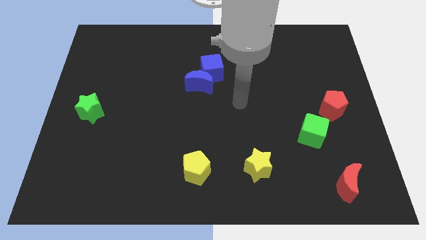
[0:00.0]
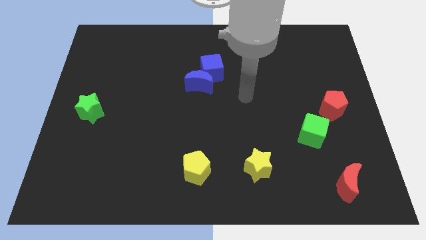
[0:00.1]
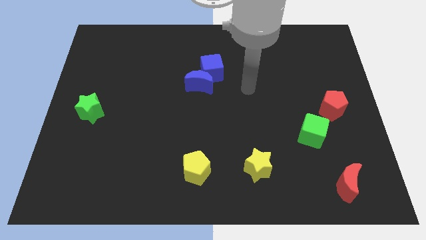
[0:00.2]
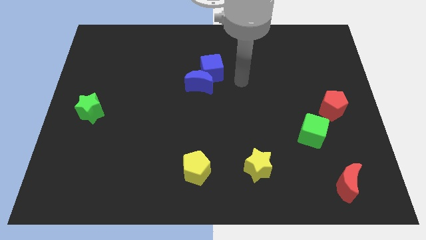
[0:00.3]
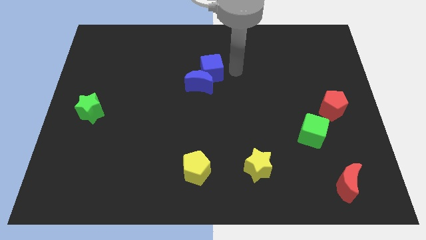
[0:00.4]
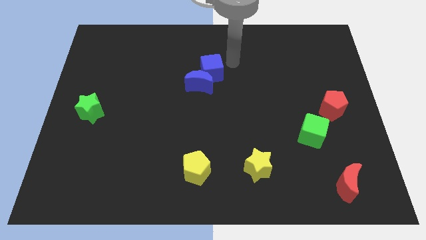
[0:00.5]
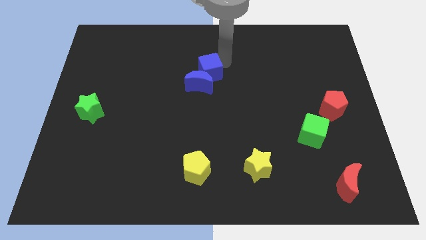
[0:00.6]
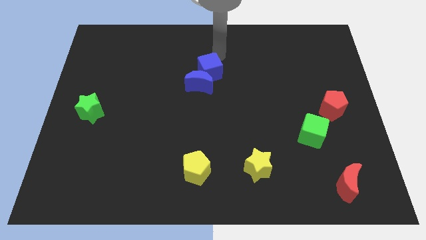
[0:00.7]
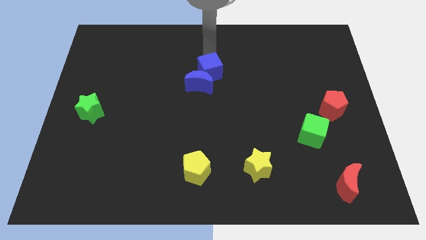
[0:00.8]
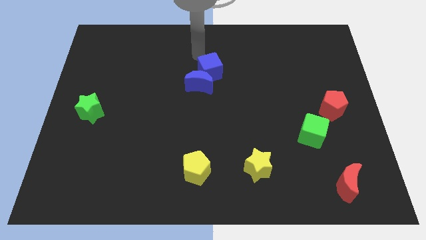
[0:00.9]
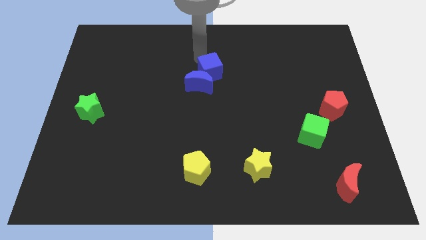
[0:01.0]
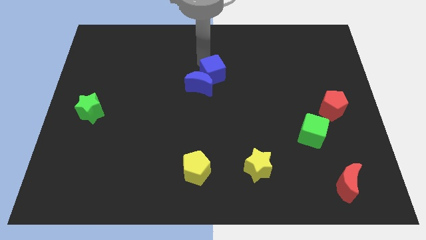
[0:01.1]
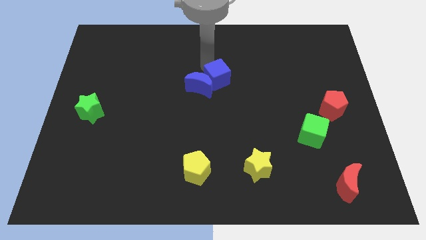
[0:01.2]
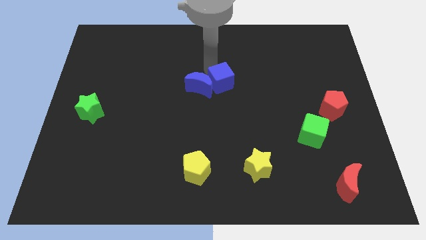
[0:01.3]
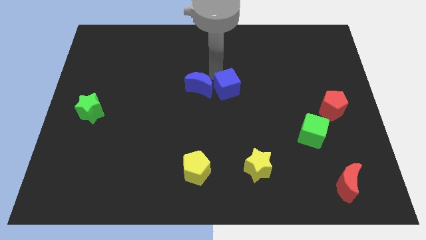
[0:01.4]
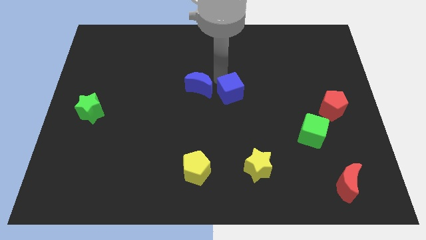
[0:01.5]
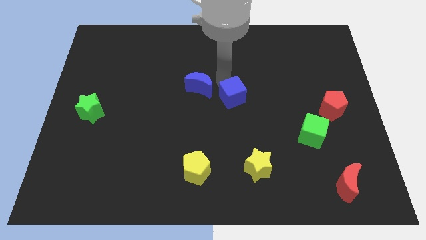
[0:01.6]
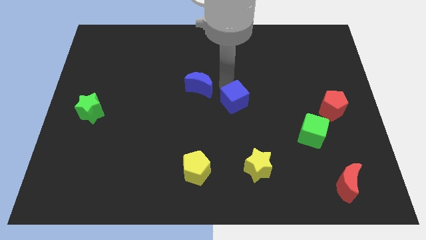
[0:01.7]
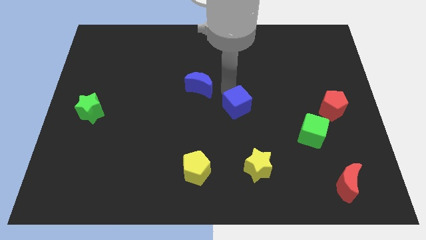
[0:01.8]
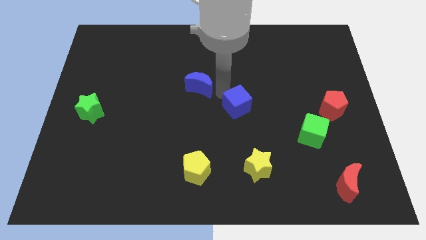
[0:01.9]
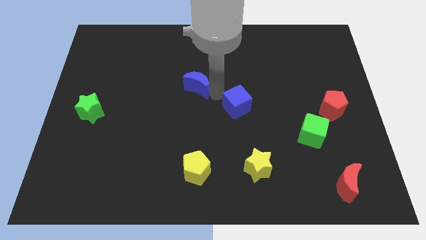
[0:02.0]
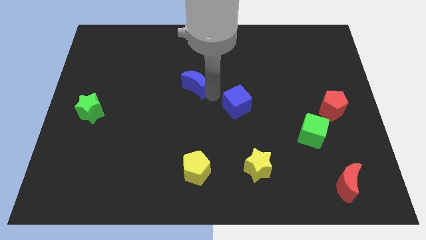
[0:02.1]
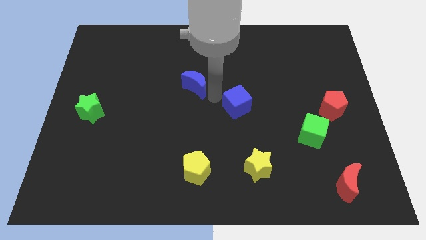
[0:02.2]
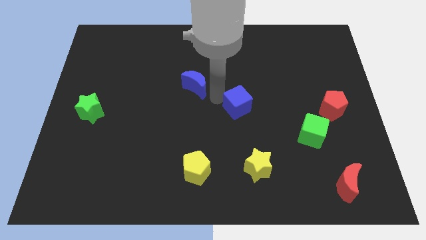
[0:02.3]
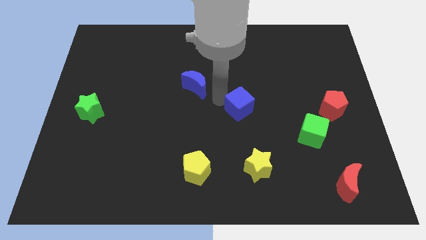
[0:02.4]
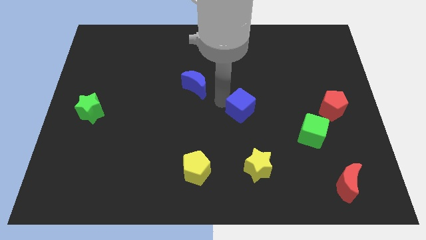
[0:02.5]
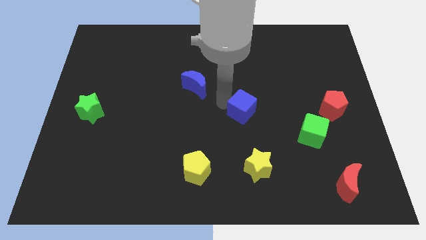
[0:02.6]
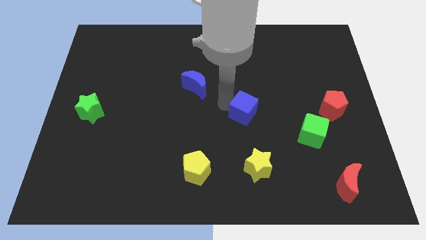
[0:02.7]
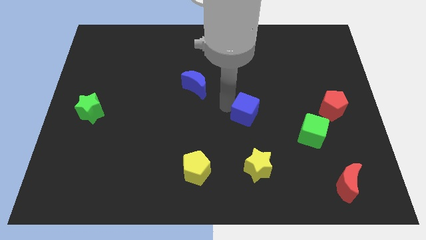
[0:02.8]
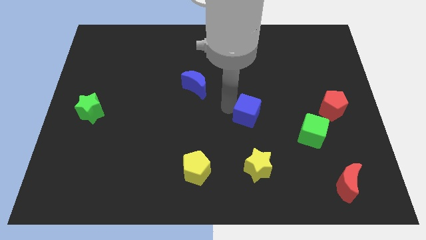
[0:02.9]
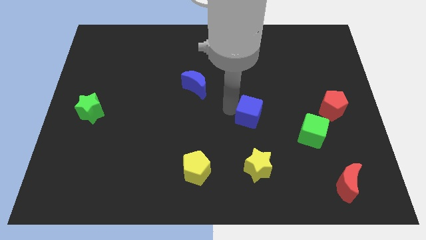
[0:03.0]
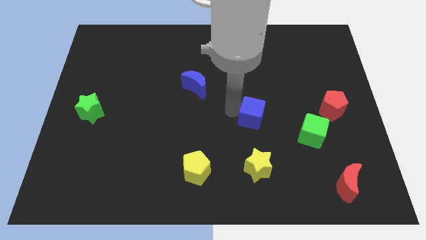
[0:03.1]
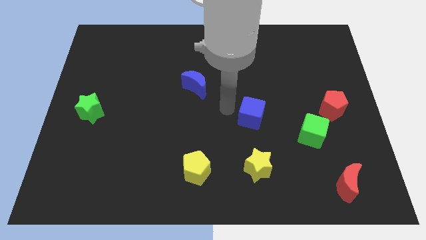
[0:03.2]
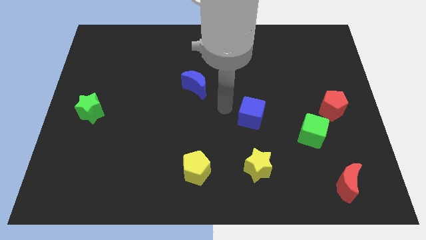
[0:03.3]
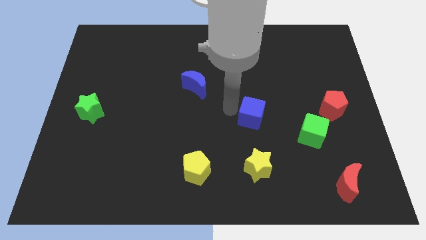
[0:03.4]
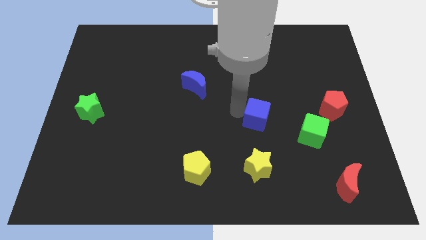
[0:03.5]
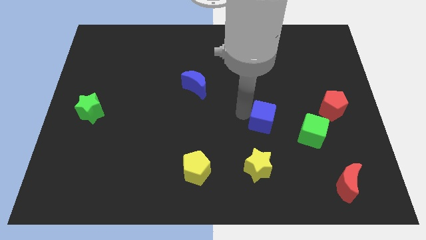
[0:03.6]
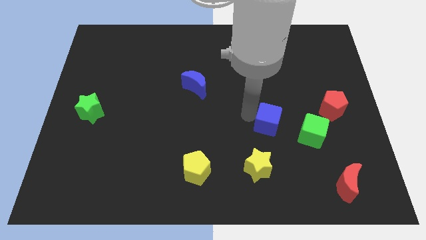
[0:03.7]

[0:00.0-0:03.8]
move the blue cube down and right

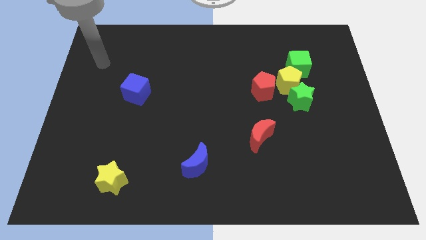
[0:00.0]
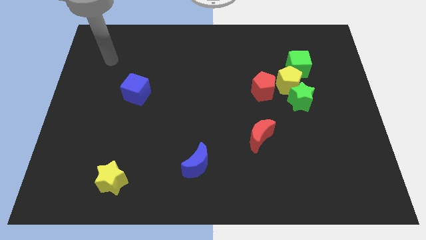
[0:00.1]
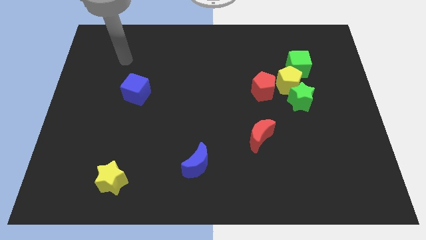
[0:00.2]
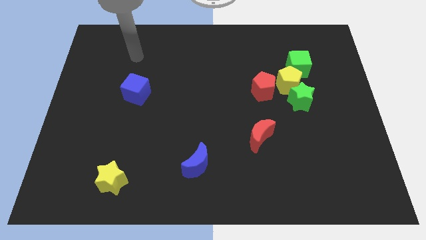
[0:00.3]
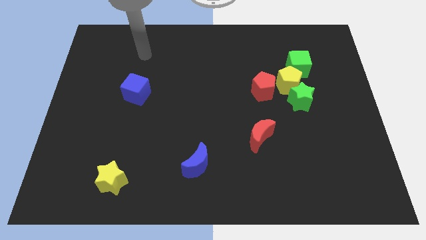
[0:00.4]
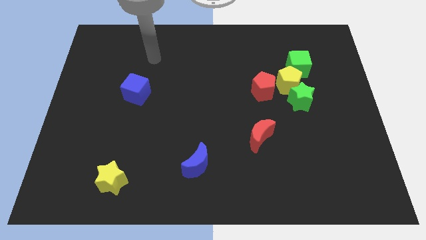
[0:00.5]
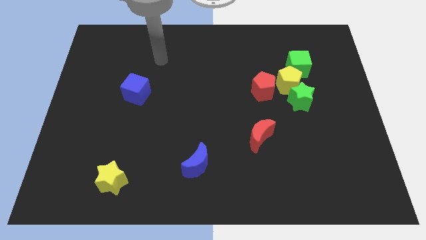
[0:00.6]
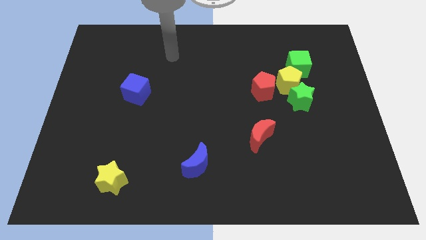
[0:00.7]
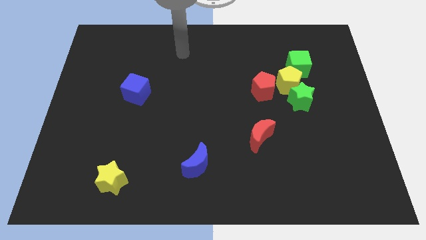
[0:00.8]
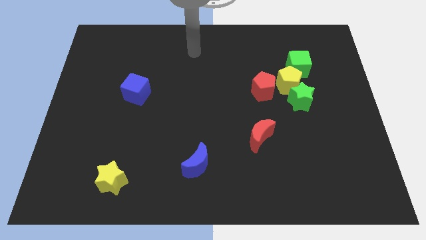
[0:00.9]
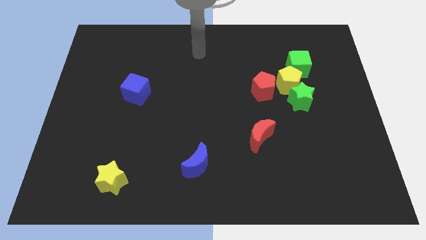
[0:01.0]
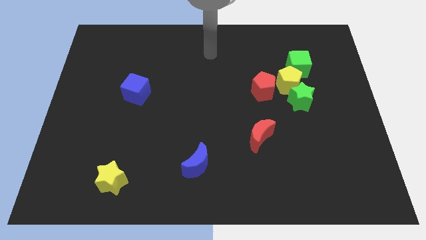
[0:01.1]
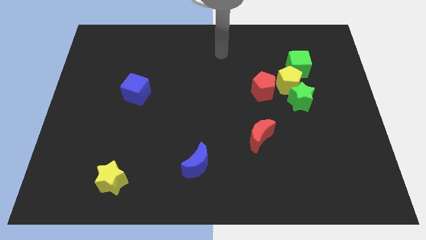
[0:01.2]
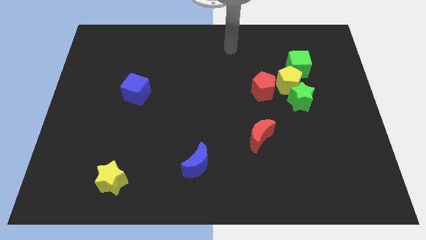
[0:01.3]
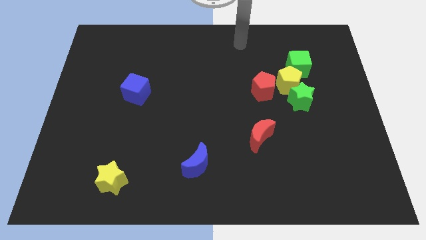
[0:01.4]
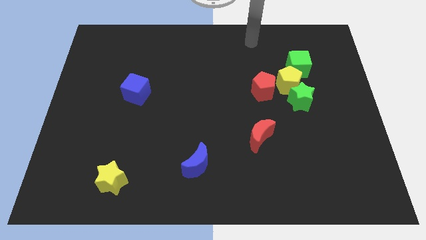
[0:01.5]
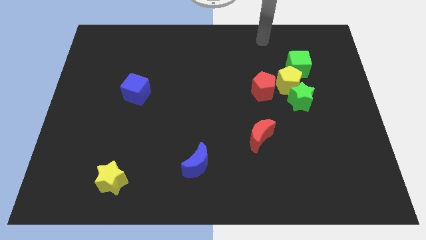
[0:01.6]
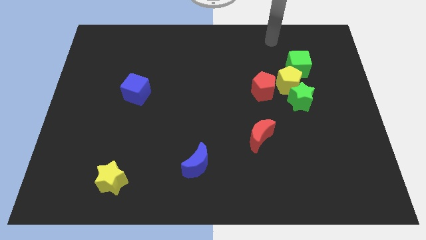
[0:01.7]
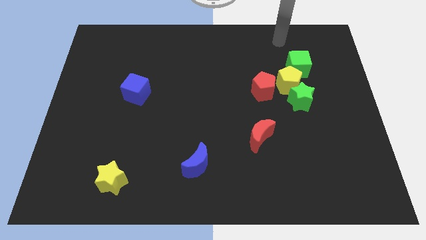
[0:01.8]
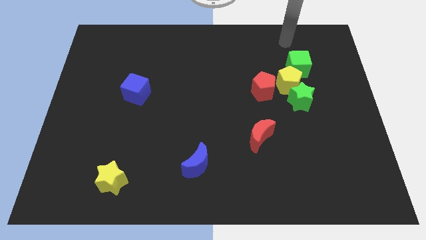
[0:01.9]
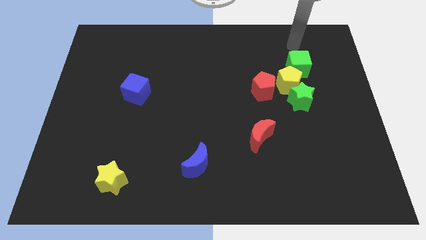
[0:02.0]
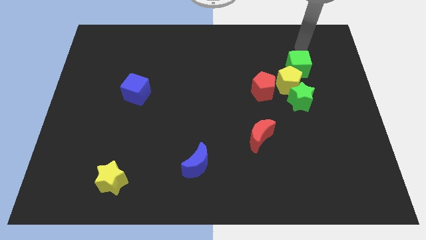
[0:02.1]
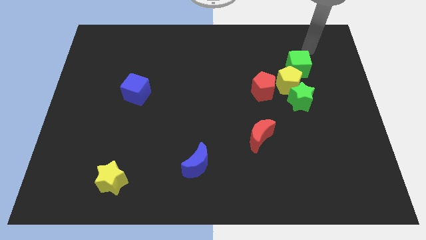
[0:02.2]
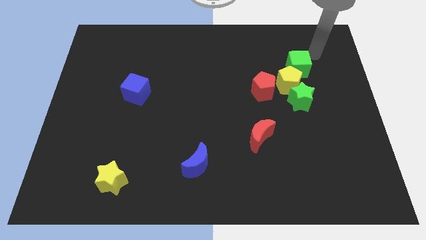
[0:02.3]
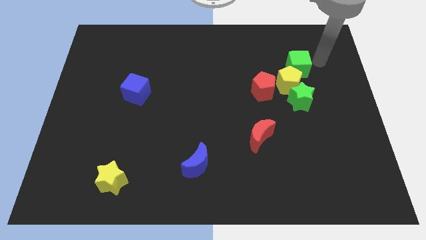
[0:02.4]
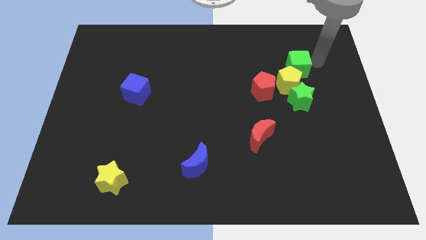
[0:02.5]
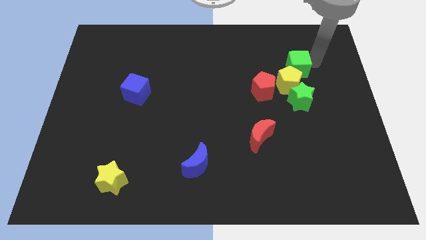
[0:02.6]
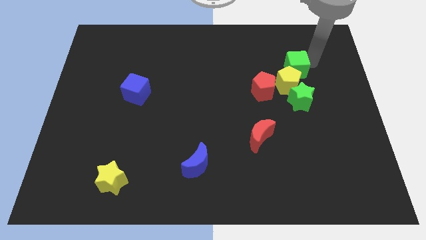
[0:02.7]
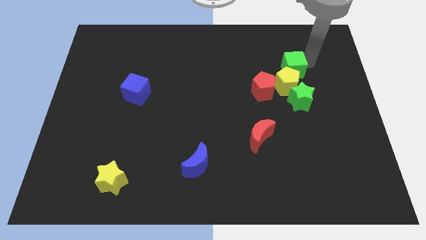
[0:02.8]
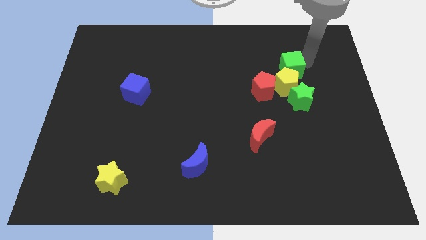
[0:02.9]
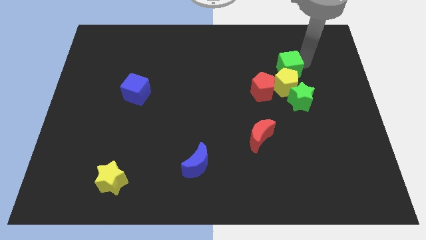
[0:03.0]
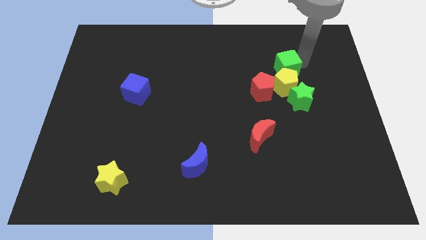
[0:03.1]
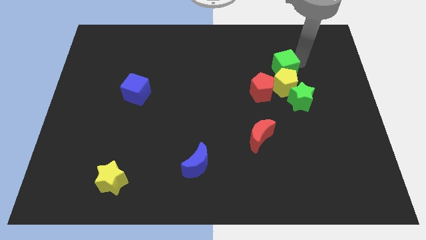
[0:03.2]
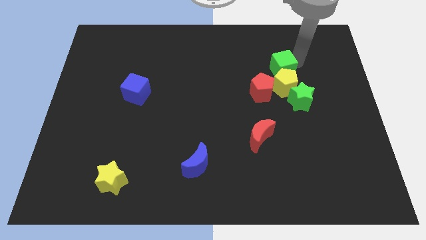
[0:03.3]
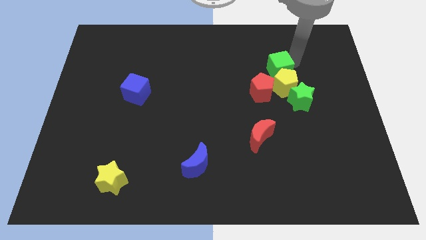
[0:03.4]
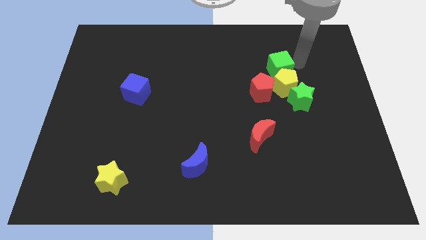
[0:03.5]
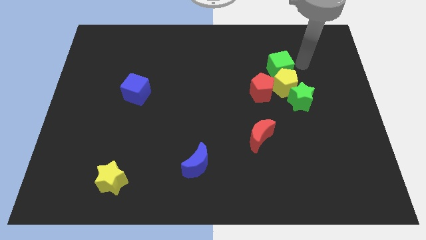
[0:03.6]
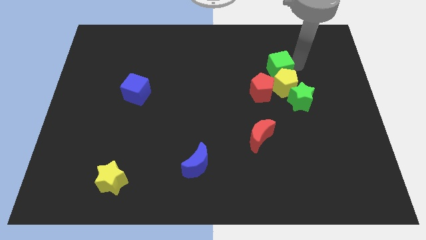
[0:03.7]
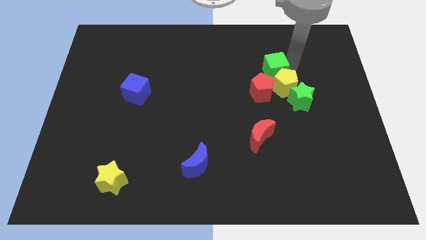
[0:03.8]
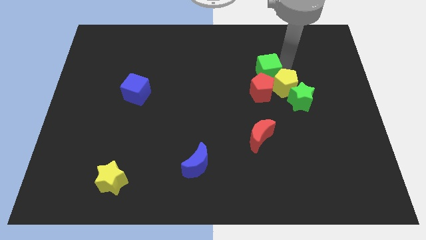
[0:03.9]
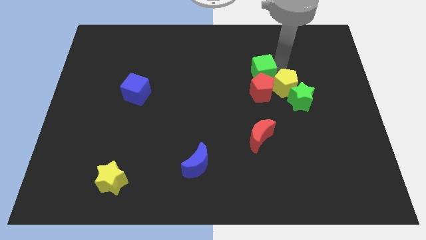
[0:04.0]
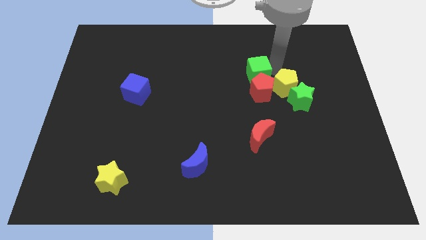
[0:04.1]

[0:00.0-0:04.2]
slightly move the green cube down and to the left diagonally

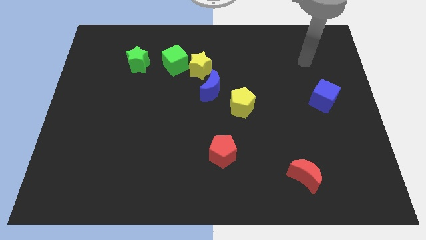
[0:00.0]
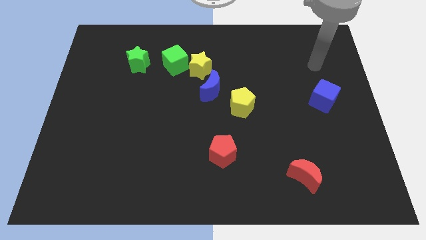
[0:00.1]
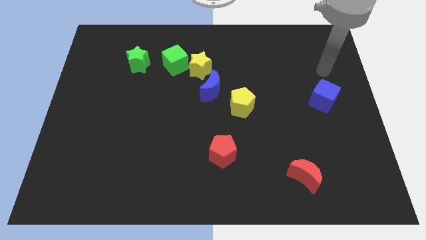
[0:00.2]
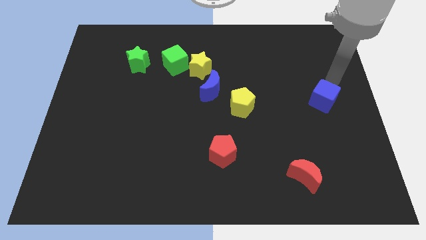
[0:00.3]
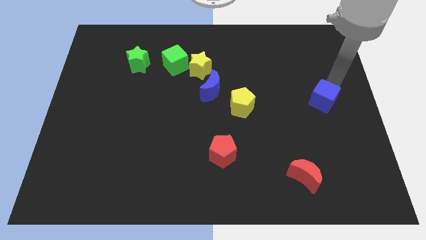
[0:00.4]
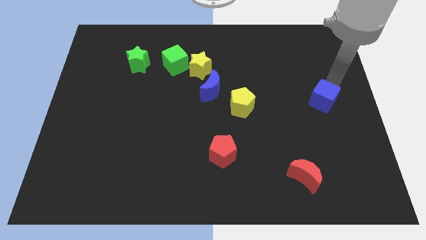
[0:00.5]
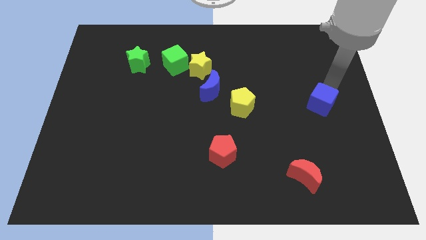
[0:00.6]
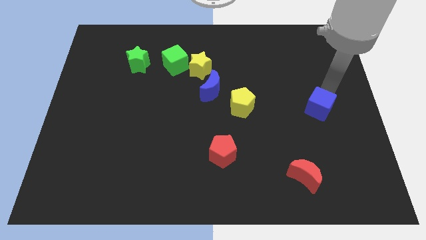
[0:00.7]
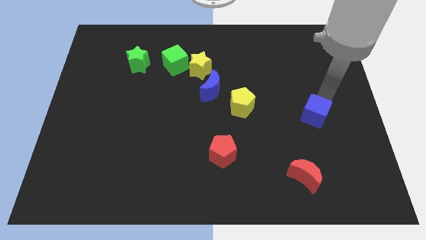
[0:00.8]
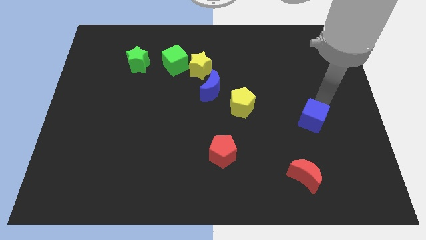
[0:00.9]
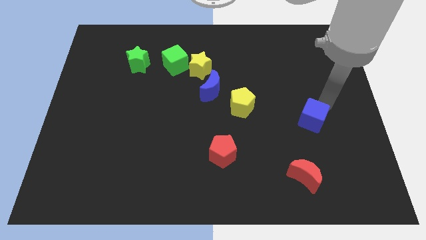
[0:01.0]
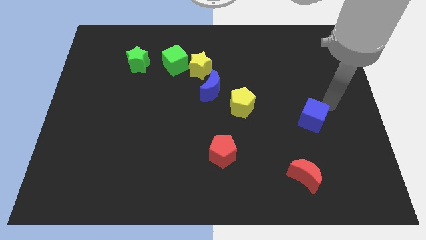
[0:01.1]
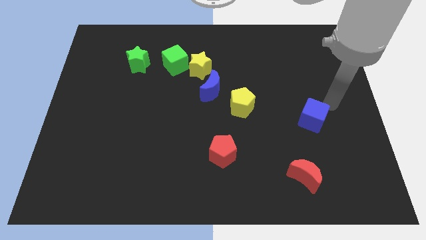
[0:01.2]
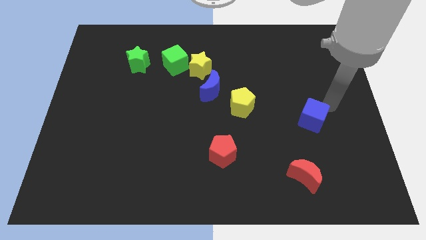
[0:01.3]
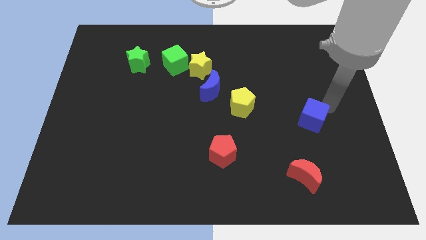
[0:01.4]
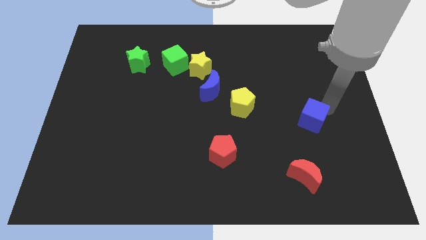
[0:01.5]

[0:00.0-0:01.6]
push the blue cube a little down and to the left diagonally
